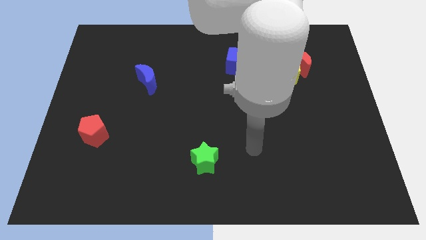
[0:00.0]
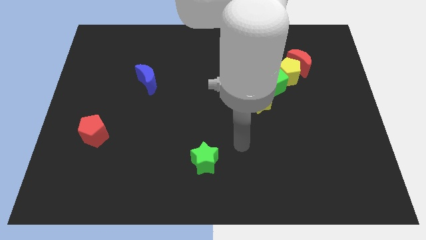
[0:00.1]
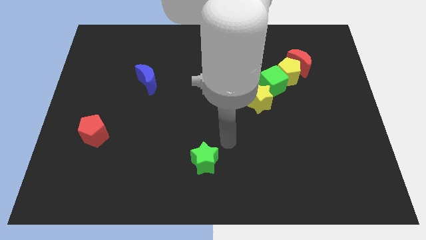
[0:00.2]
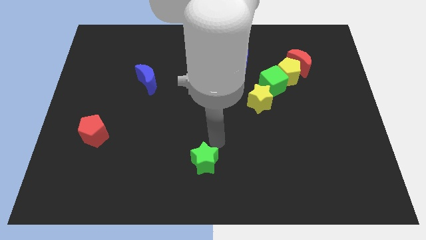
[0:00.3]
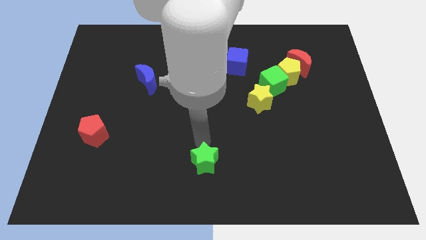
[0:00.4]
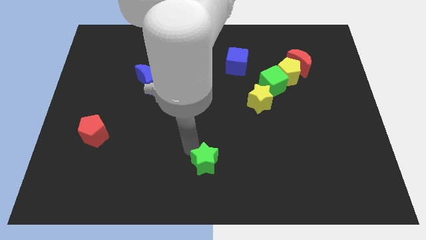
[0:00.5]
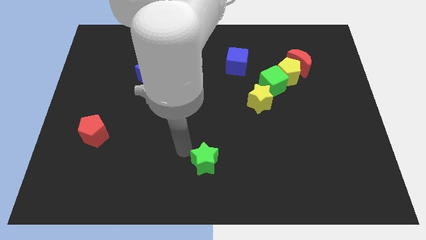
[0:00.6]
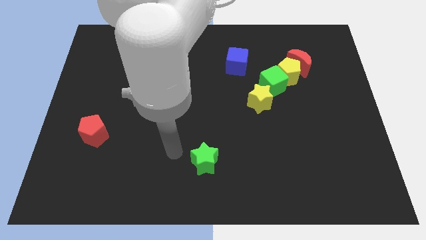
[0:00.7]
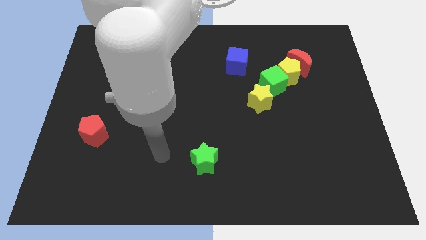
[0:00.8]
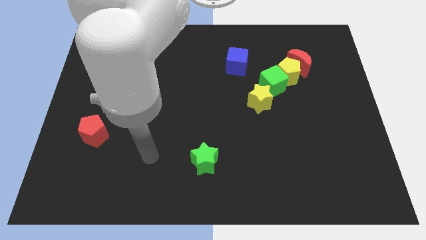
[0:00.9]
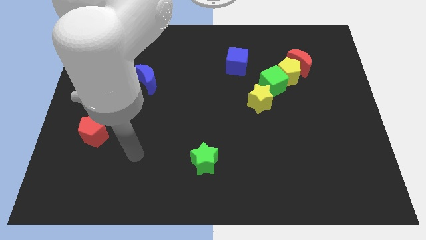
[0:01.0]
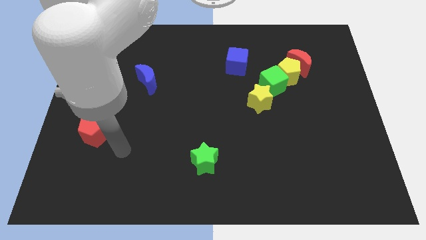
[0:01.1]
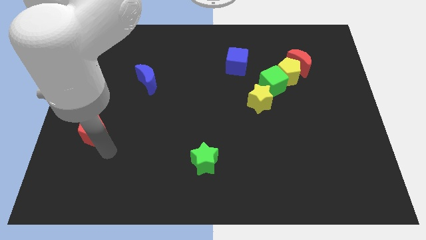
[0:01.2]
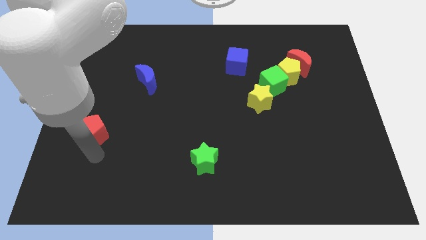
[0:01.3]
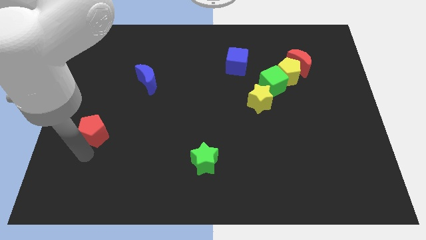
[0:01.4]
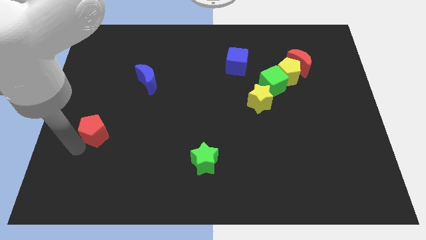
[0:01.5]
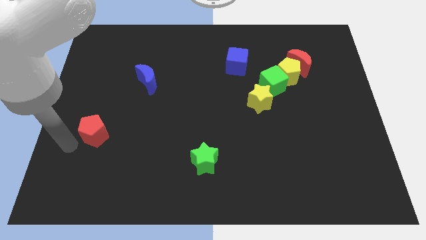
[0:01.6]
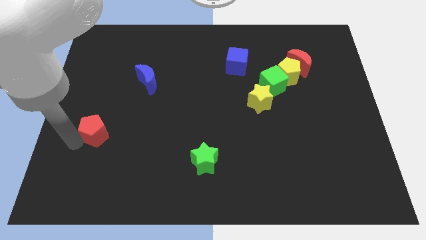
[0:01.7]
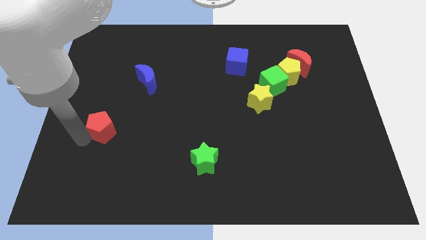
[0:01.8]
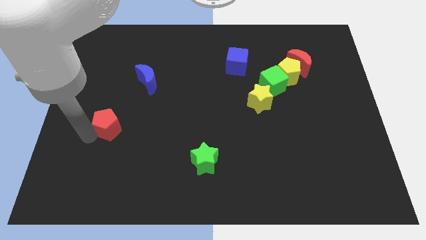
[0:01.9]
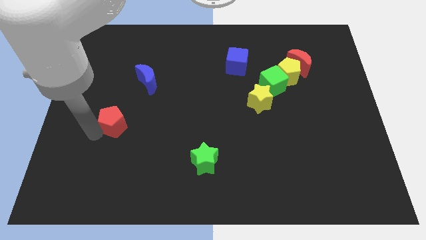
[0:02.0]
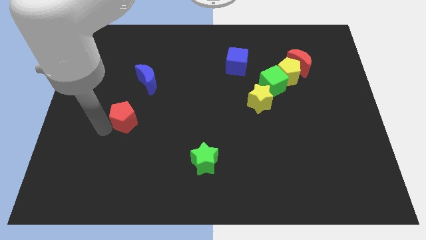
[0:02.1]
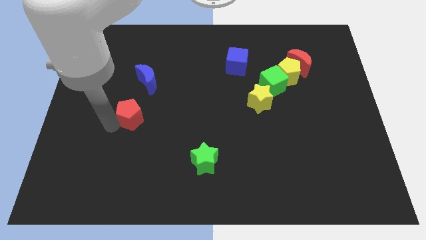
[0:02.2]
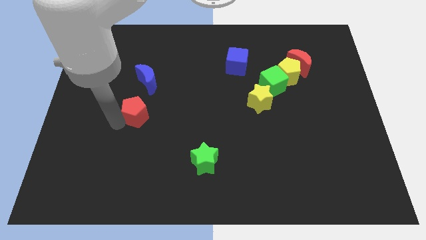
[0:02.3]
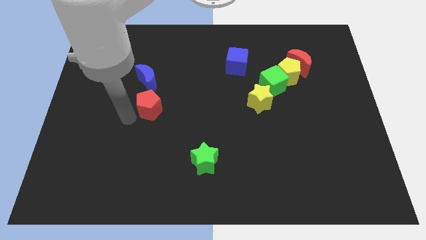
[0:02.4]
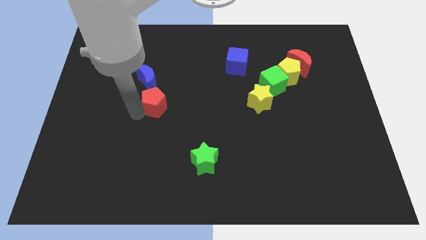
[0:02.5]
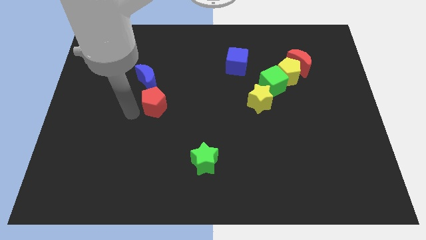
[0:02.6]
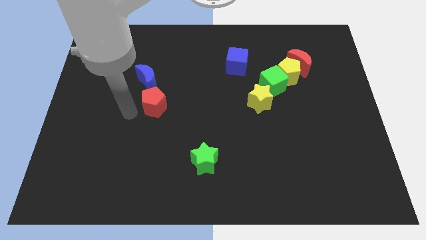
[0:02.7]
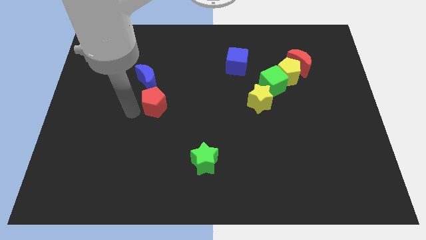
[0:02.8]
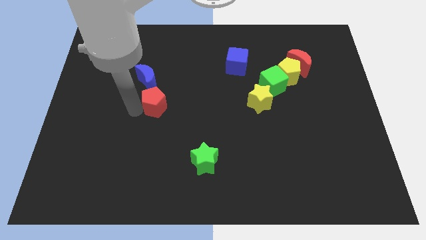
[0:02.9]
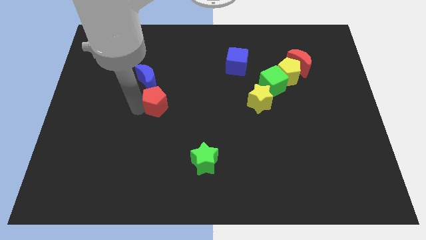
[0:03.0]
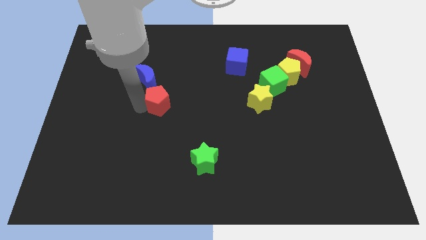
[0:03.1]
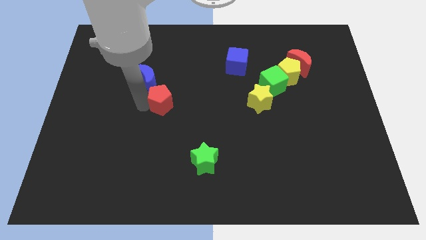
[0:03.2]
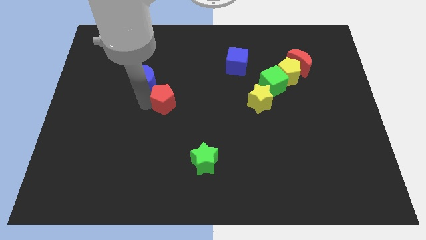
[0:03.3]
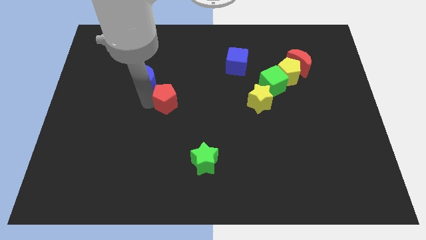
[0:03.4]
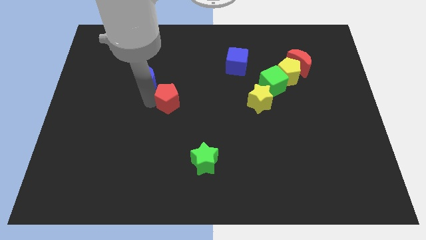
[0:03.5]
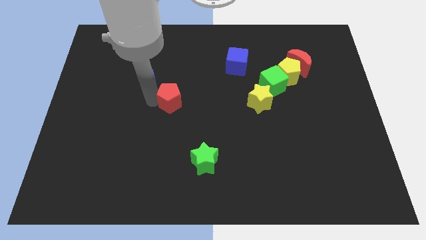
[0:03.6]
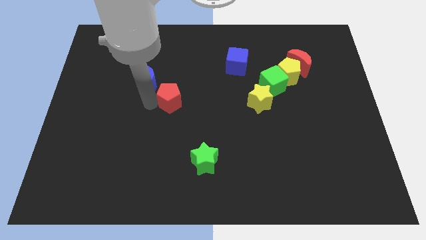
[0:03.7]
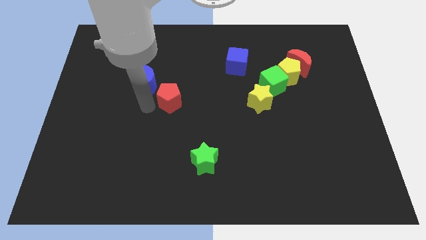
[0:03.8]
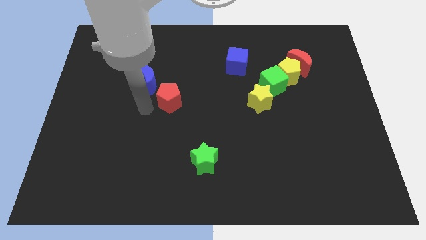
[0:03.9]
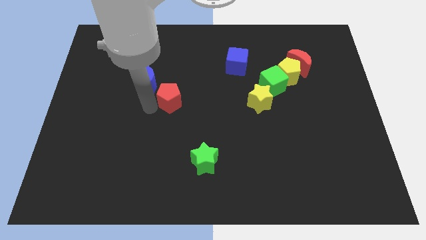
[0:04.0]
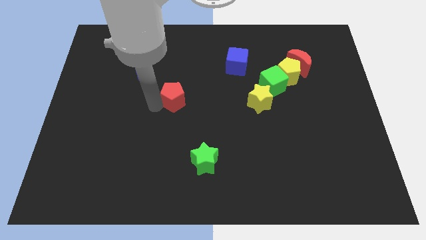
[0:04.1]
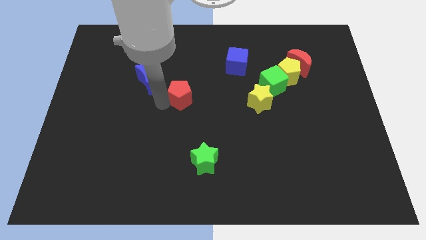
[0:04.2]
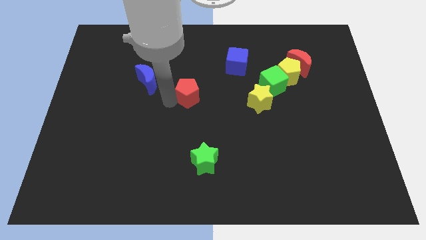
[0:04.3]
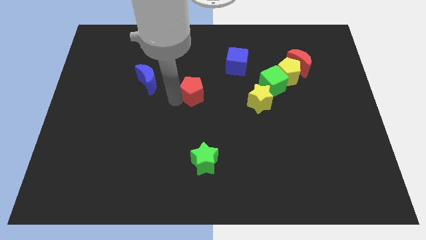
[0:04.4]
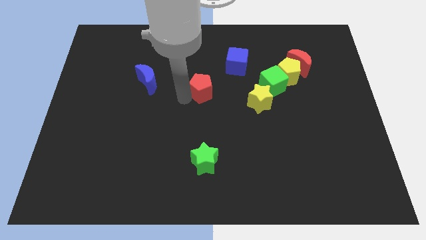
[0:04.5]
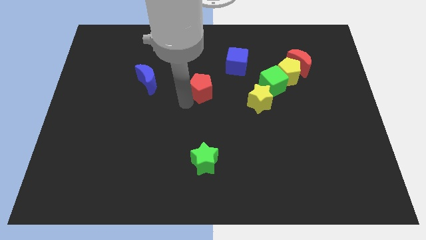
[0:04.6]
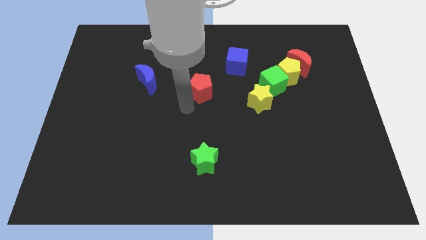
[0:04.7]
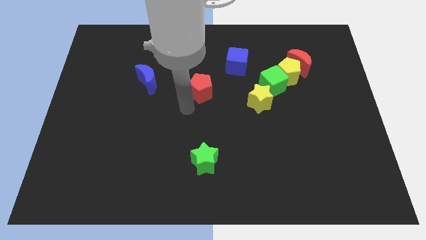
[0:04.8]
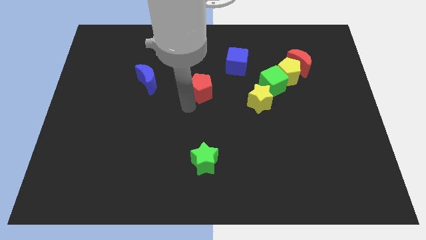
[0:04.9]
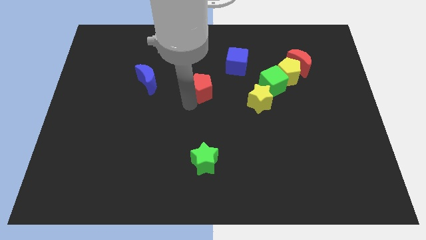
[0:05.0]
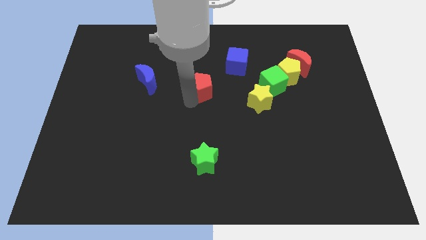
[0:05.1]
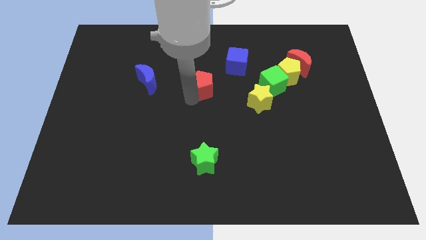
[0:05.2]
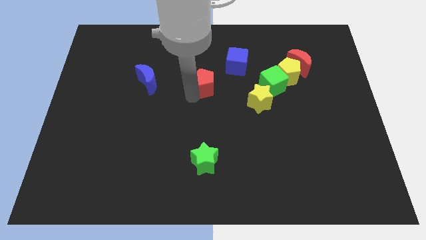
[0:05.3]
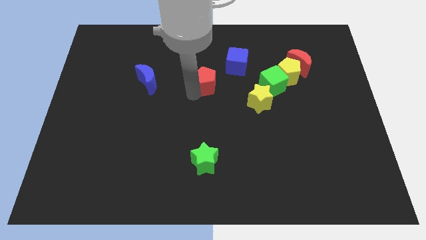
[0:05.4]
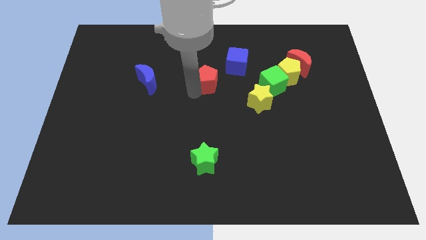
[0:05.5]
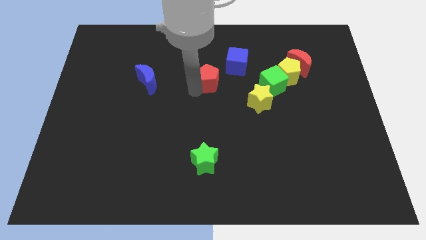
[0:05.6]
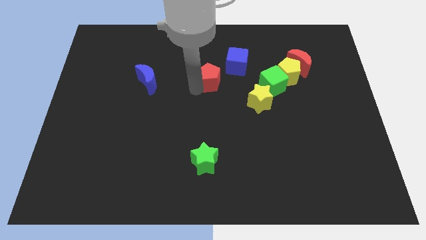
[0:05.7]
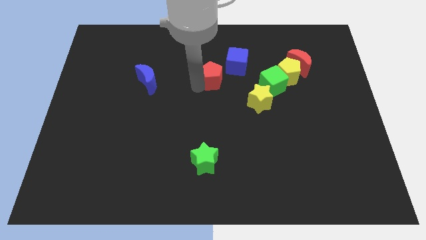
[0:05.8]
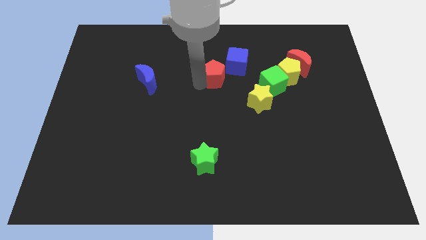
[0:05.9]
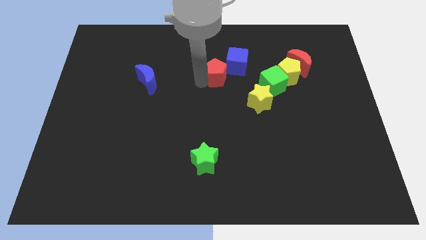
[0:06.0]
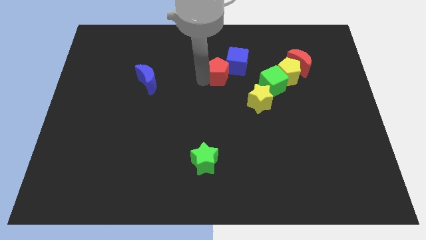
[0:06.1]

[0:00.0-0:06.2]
slide the red pentagon close to the blue cube

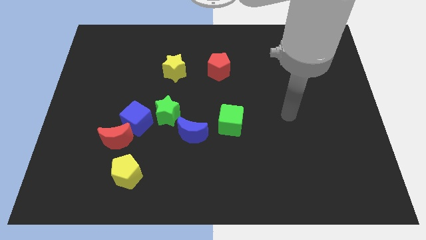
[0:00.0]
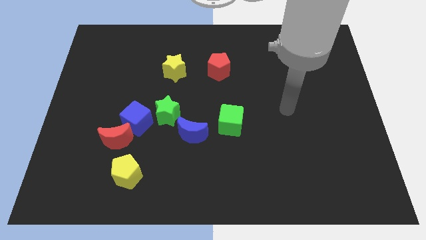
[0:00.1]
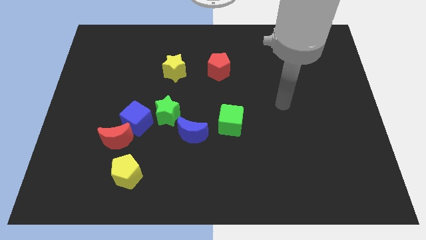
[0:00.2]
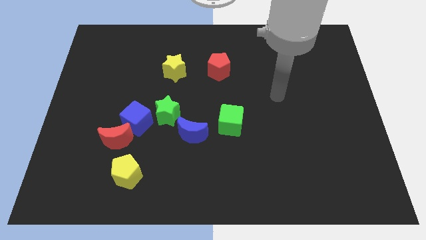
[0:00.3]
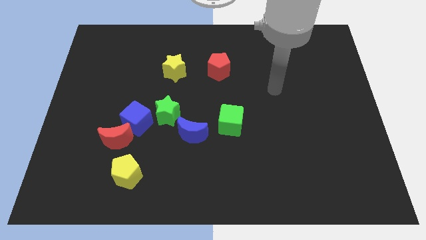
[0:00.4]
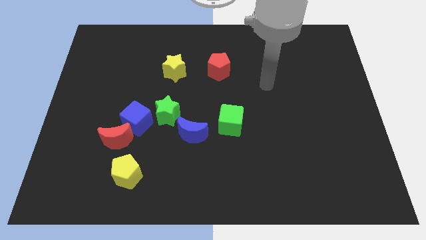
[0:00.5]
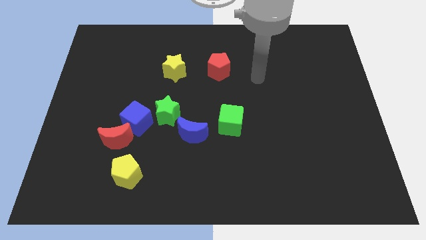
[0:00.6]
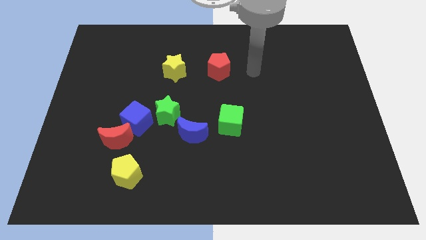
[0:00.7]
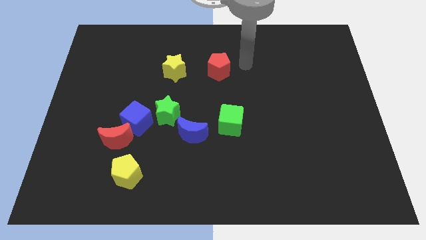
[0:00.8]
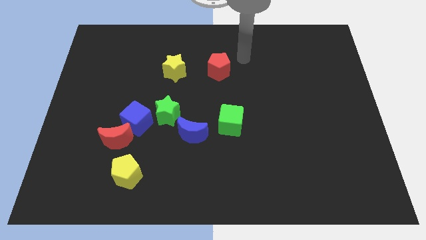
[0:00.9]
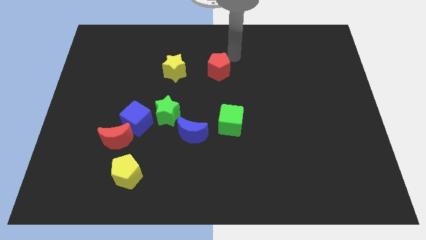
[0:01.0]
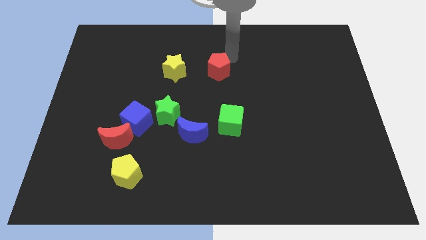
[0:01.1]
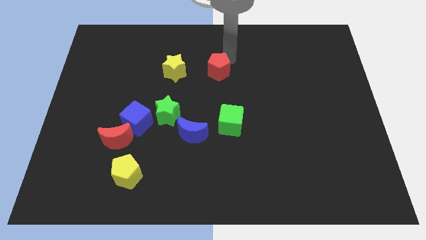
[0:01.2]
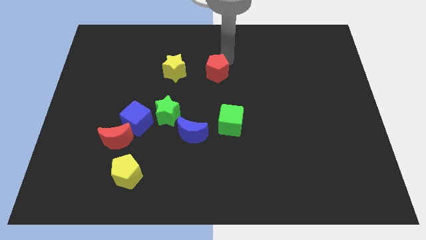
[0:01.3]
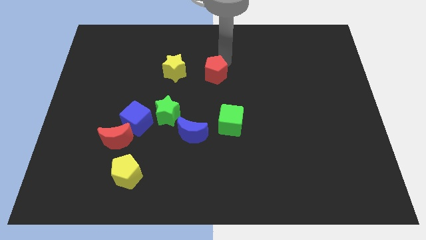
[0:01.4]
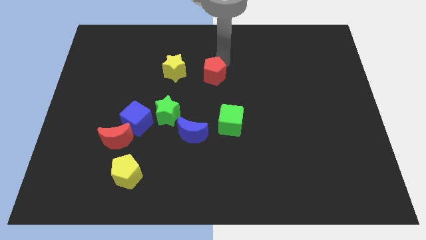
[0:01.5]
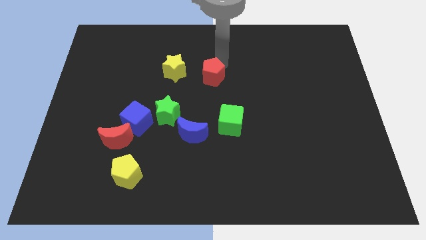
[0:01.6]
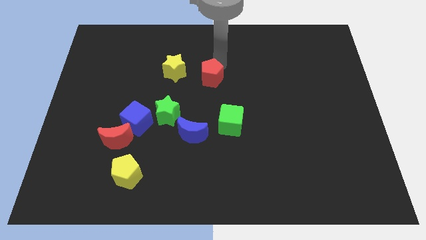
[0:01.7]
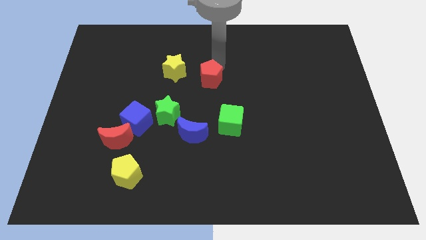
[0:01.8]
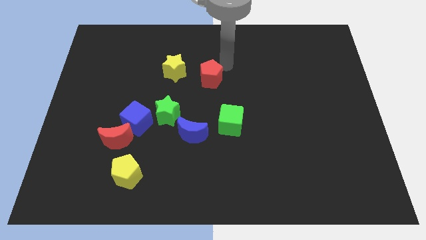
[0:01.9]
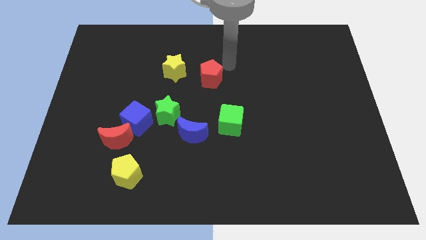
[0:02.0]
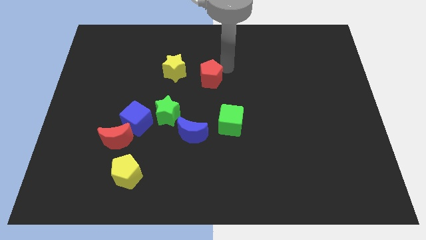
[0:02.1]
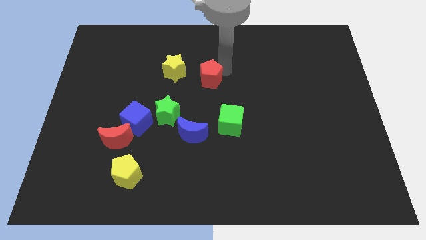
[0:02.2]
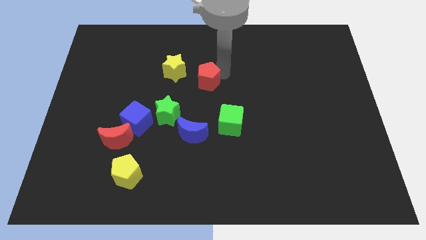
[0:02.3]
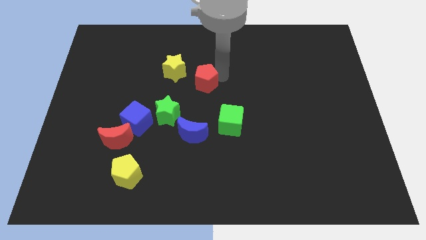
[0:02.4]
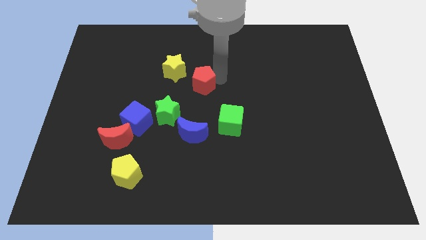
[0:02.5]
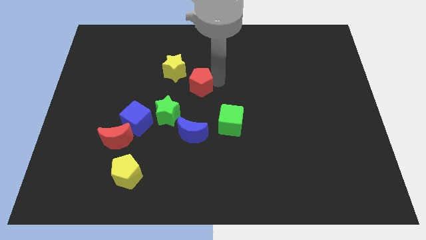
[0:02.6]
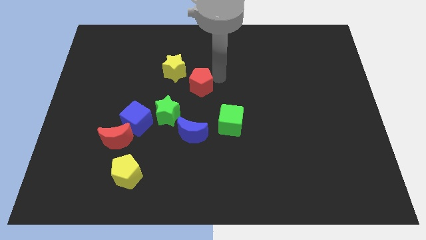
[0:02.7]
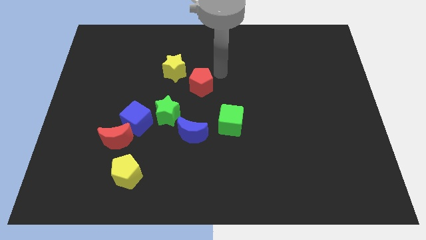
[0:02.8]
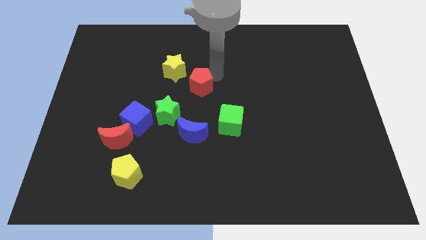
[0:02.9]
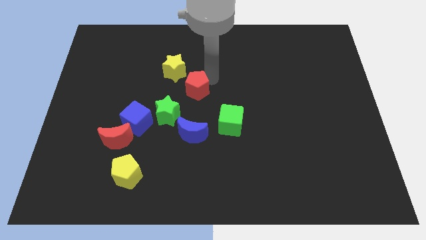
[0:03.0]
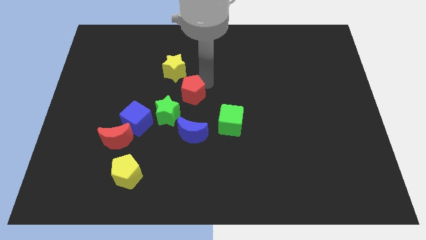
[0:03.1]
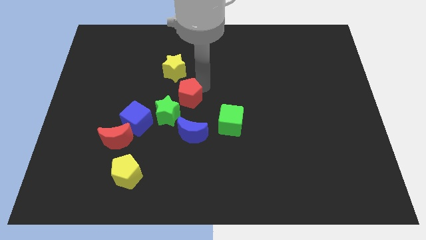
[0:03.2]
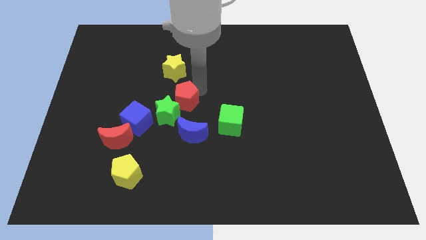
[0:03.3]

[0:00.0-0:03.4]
slide the red pentagon next to the green star
